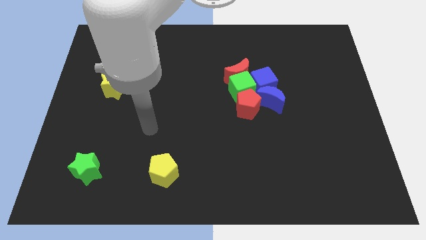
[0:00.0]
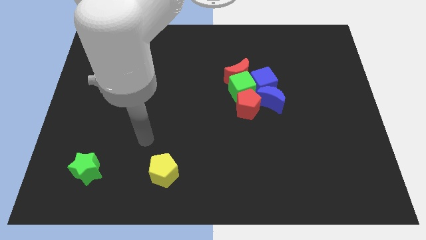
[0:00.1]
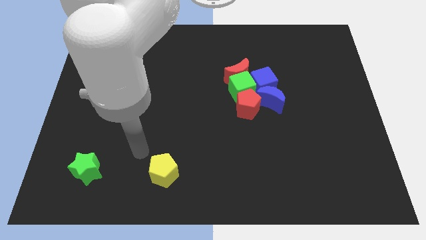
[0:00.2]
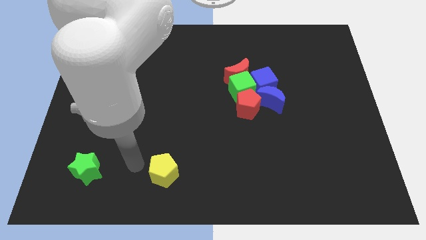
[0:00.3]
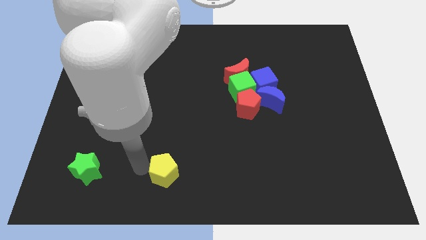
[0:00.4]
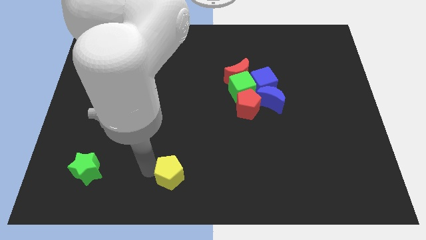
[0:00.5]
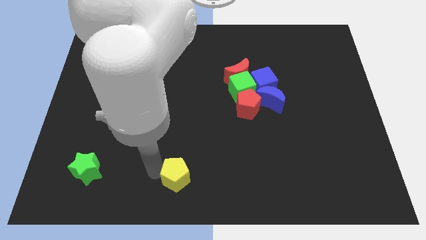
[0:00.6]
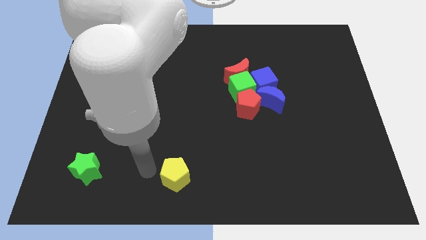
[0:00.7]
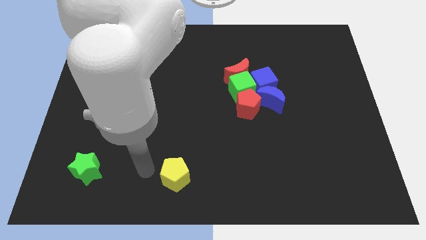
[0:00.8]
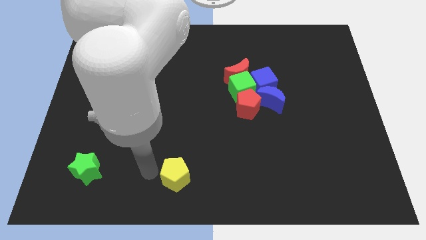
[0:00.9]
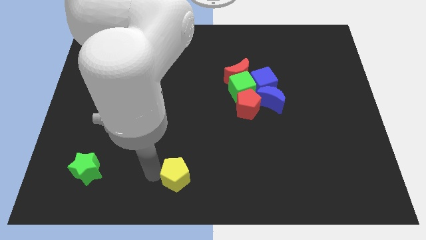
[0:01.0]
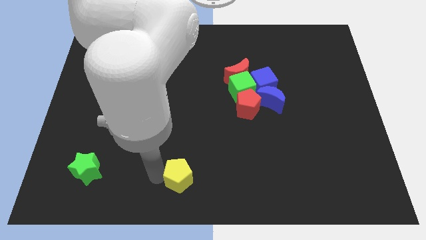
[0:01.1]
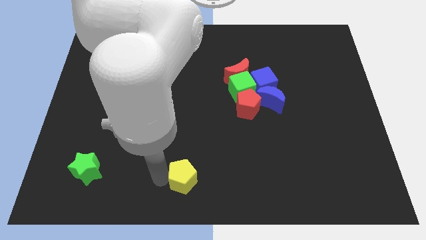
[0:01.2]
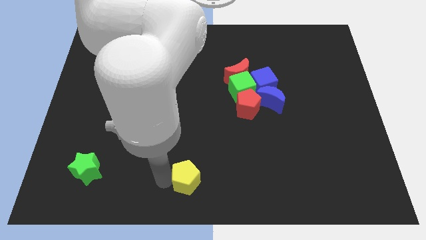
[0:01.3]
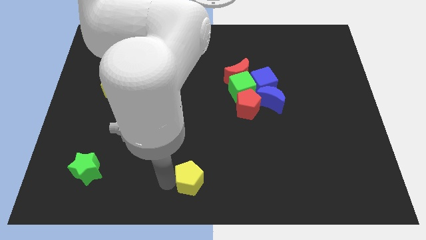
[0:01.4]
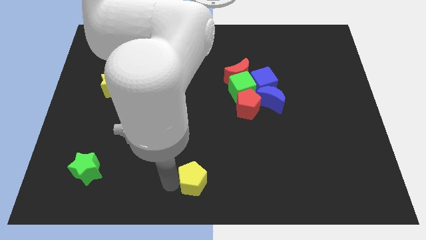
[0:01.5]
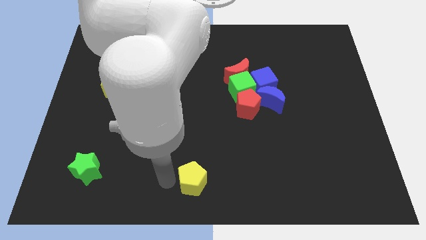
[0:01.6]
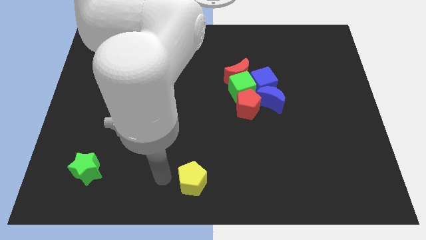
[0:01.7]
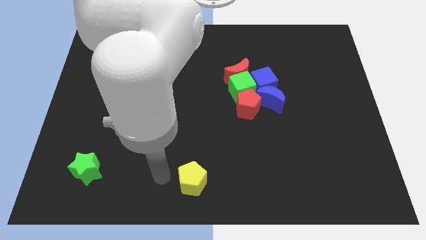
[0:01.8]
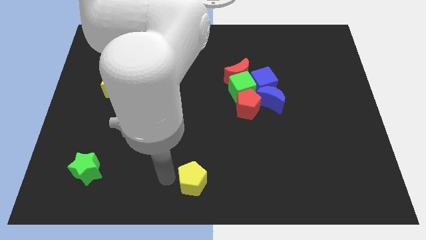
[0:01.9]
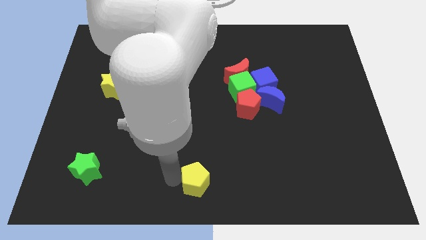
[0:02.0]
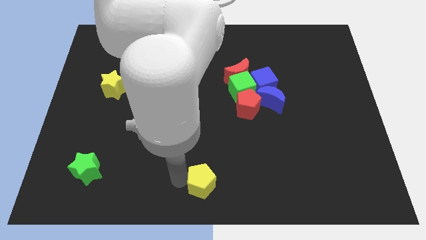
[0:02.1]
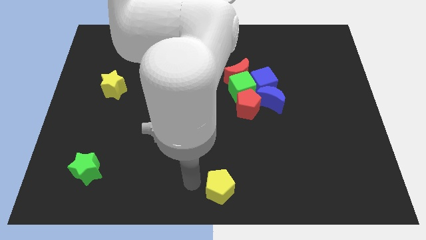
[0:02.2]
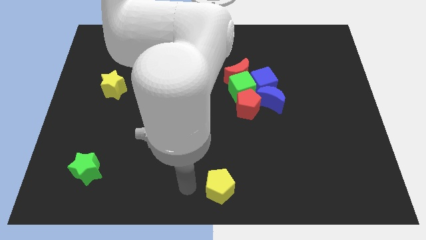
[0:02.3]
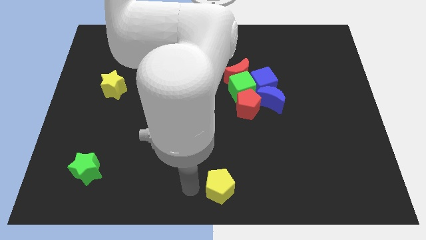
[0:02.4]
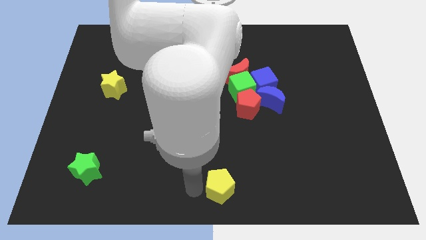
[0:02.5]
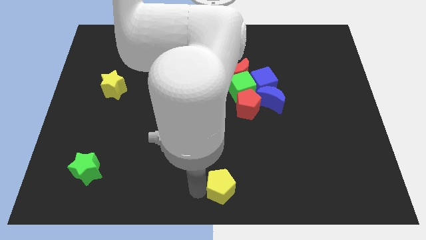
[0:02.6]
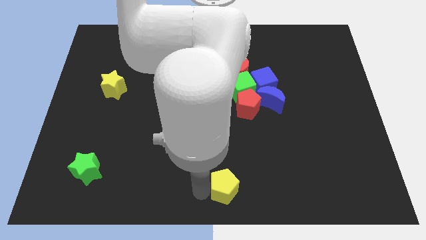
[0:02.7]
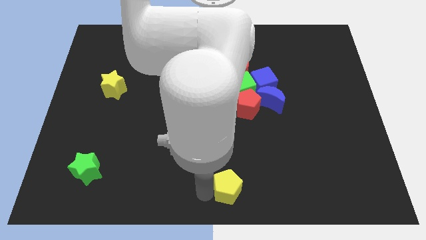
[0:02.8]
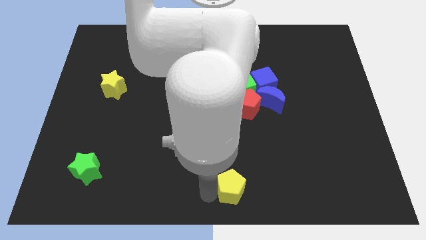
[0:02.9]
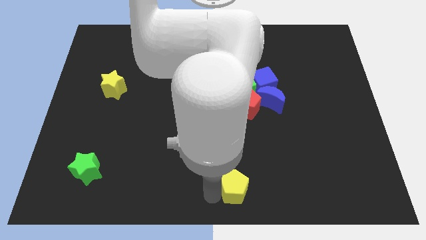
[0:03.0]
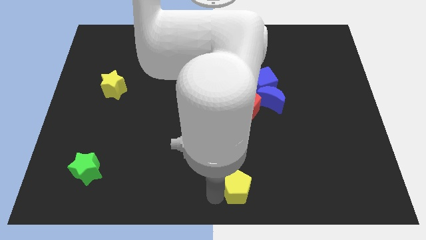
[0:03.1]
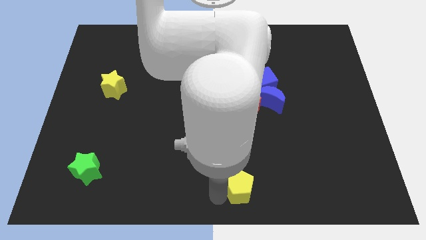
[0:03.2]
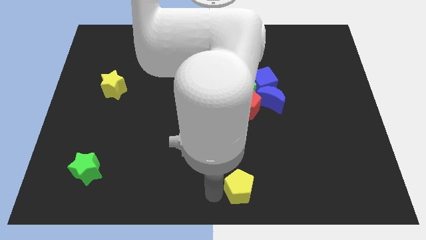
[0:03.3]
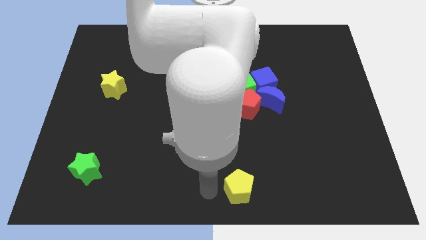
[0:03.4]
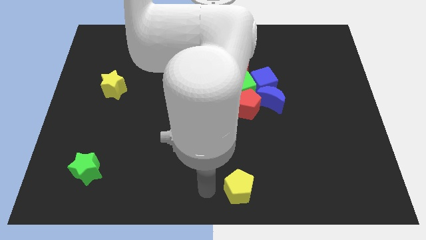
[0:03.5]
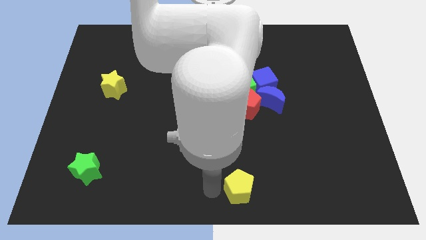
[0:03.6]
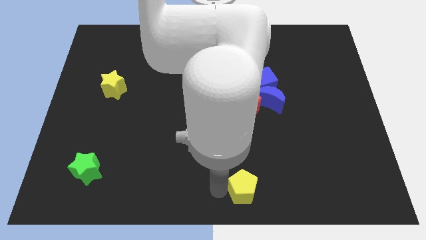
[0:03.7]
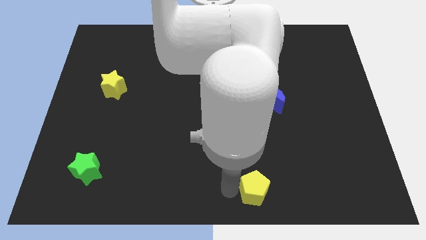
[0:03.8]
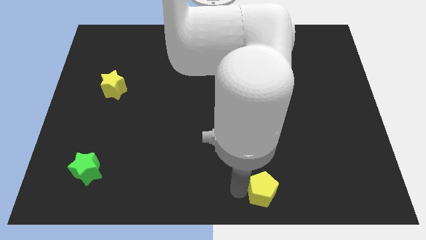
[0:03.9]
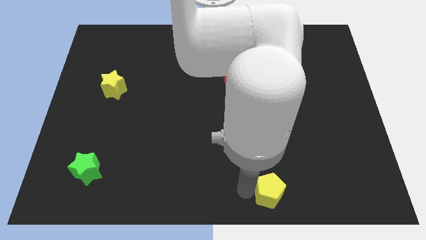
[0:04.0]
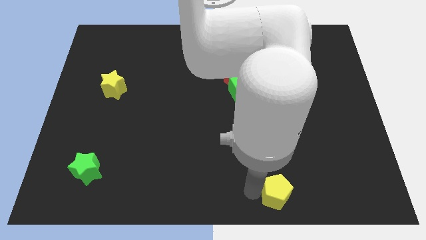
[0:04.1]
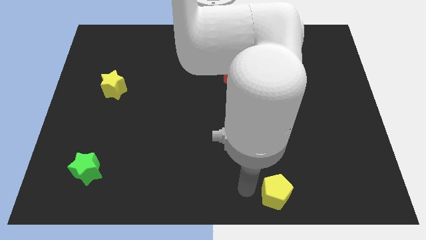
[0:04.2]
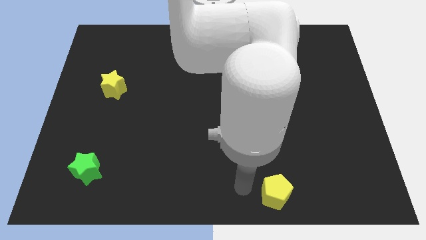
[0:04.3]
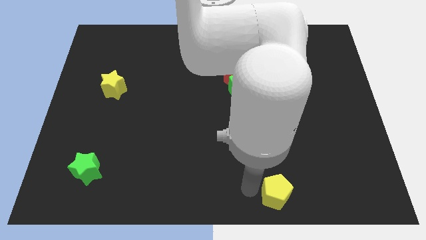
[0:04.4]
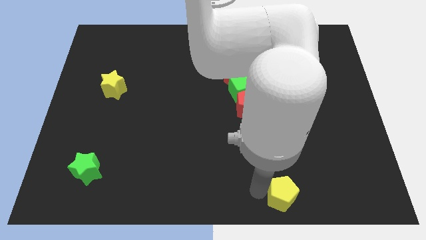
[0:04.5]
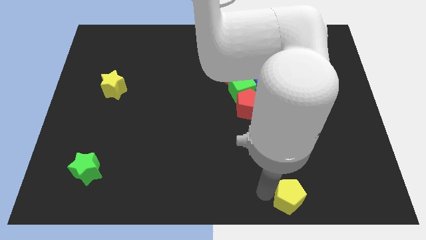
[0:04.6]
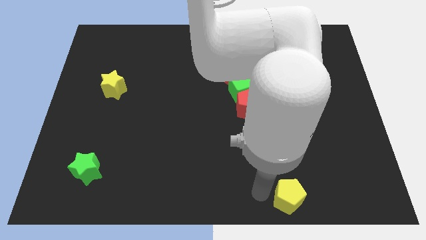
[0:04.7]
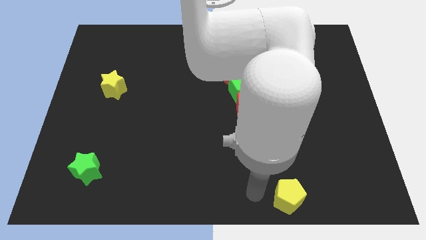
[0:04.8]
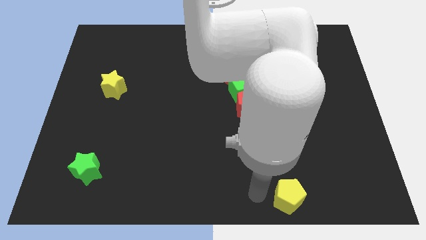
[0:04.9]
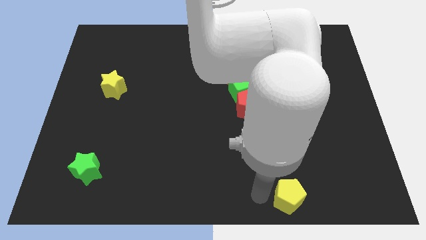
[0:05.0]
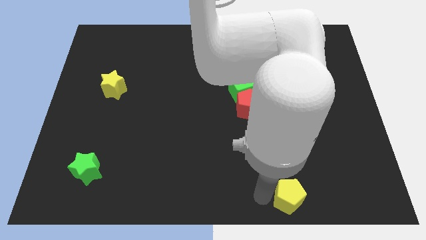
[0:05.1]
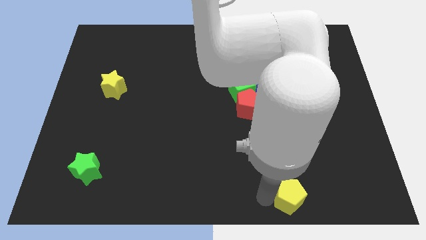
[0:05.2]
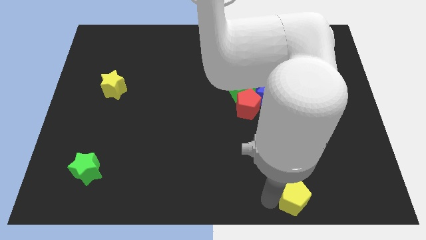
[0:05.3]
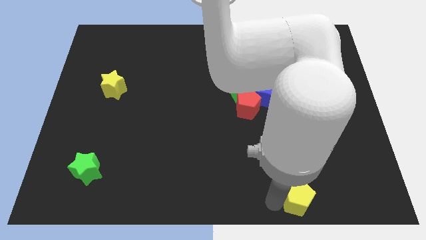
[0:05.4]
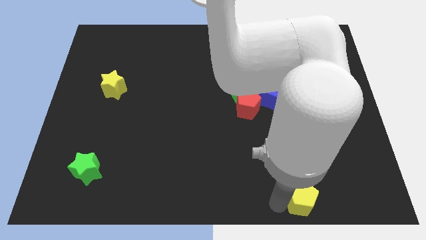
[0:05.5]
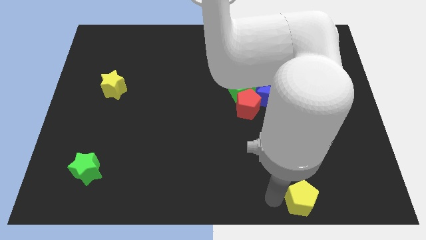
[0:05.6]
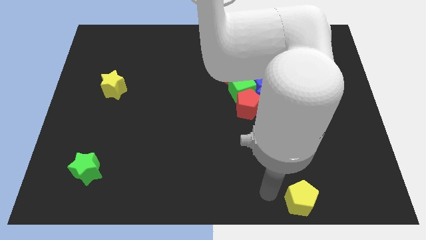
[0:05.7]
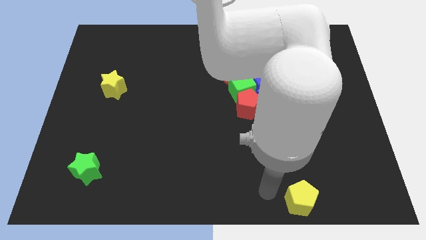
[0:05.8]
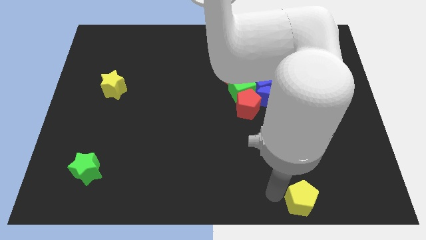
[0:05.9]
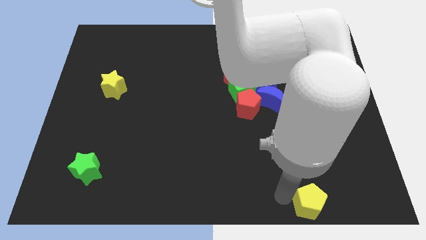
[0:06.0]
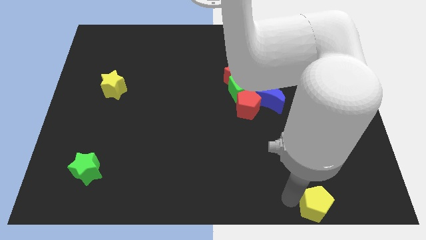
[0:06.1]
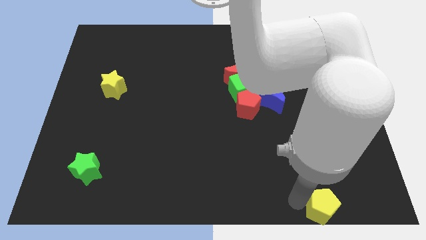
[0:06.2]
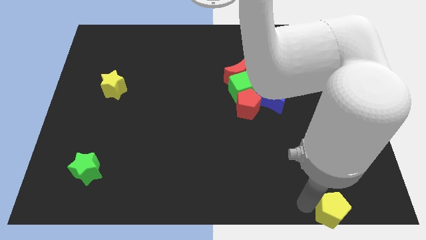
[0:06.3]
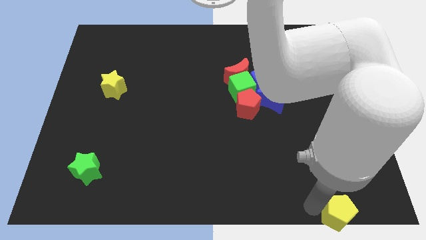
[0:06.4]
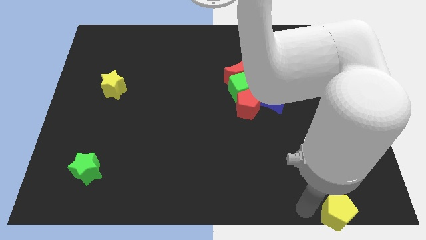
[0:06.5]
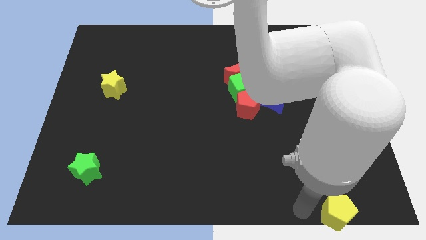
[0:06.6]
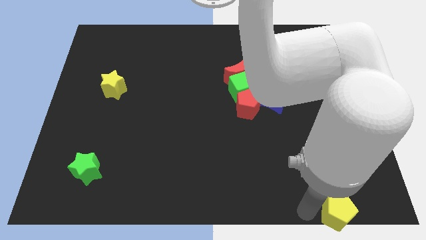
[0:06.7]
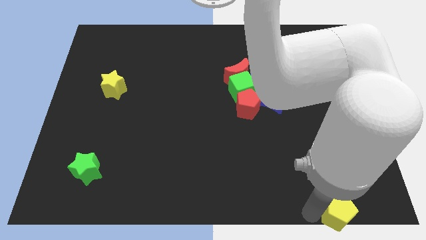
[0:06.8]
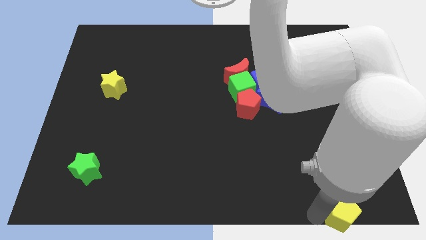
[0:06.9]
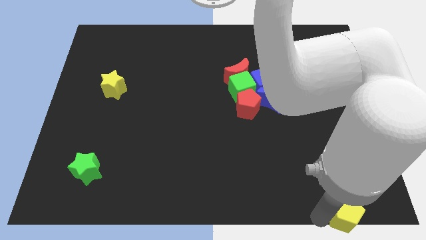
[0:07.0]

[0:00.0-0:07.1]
slide the yellow pentagon to the lower right corner
